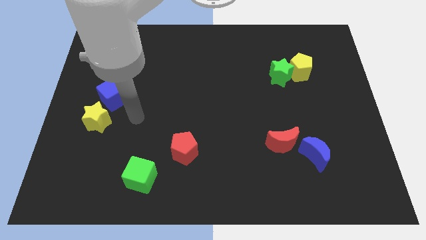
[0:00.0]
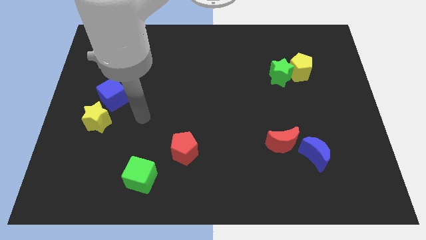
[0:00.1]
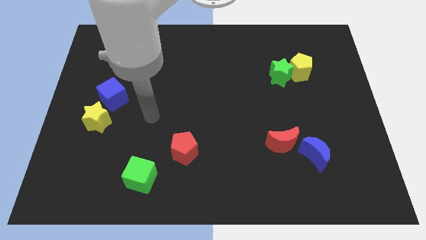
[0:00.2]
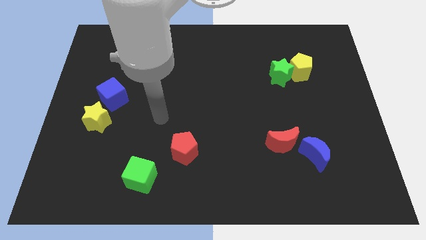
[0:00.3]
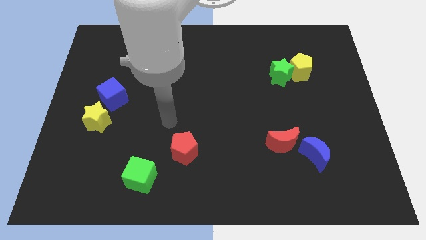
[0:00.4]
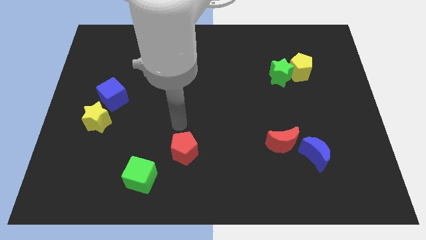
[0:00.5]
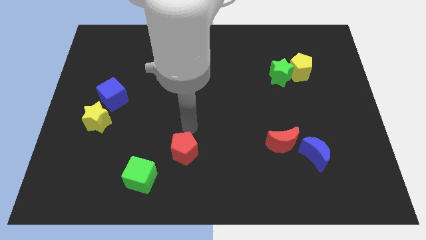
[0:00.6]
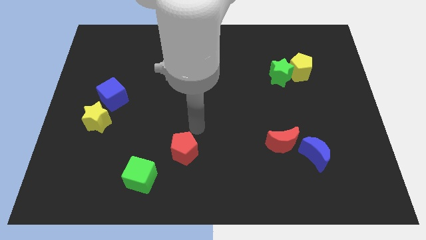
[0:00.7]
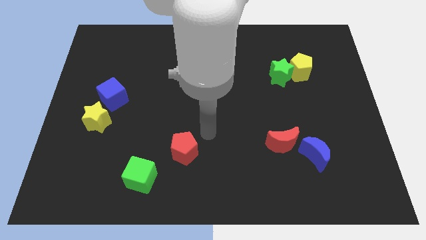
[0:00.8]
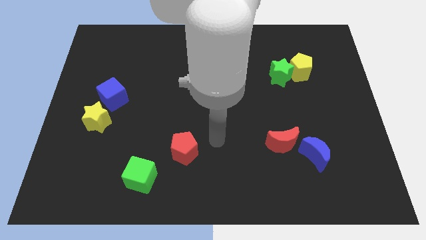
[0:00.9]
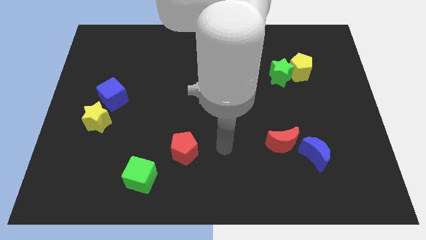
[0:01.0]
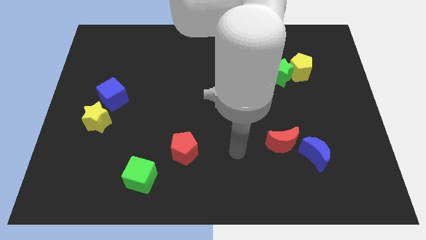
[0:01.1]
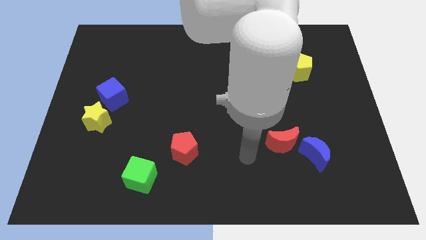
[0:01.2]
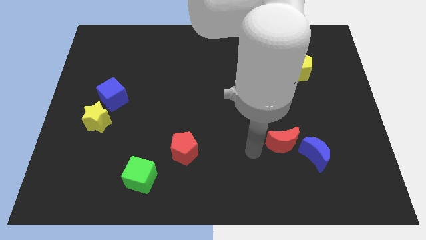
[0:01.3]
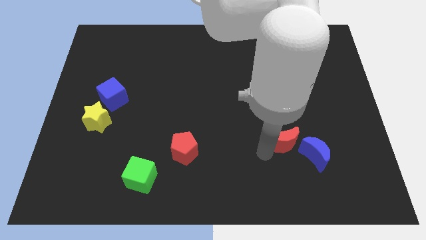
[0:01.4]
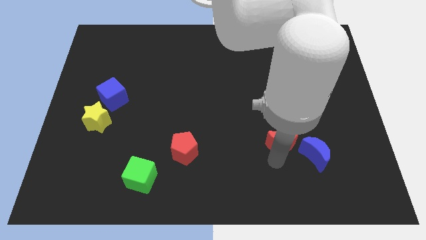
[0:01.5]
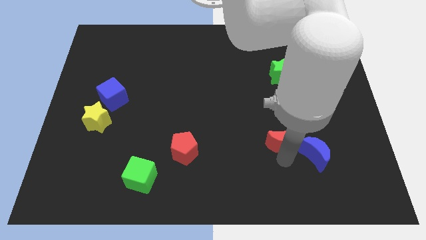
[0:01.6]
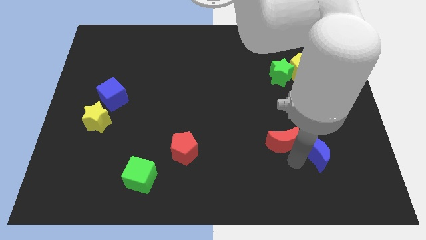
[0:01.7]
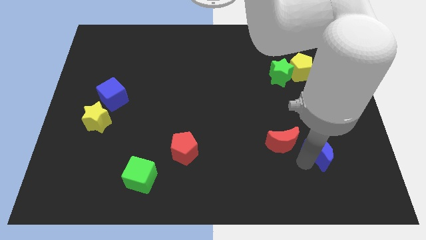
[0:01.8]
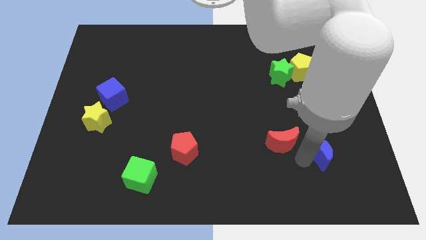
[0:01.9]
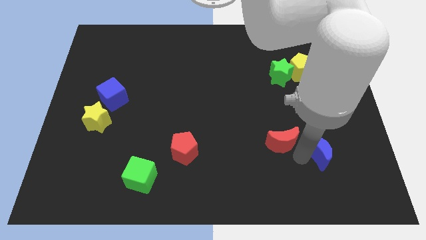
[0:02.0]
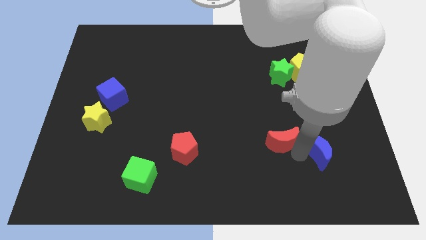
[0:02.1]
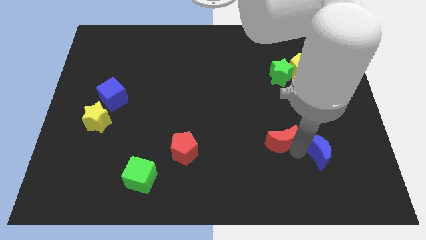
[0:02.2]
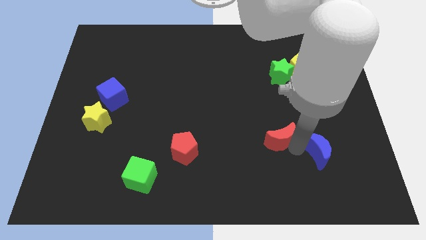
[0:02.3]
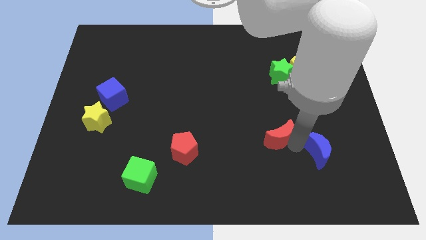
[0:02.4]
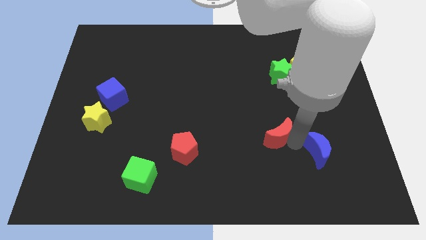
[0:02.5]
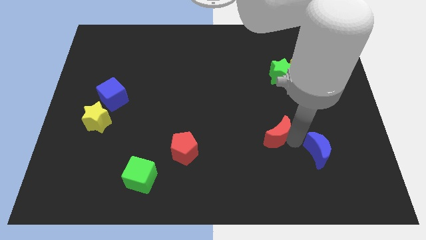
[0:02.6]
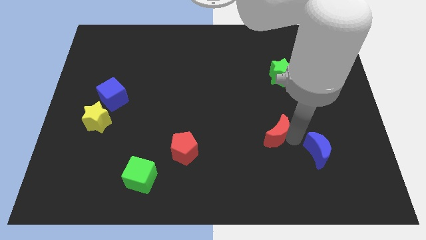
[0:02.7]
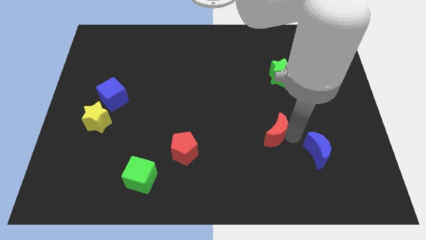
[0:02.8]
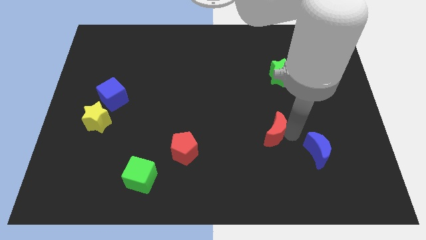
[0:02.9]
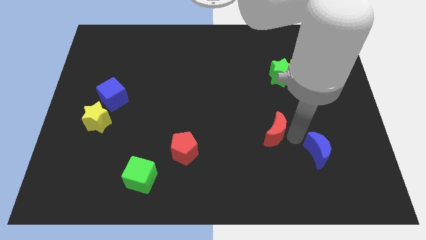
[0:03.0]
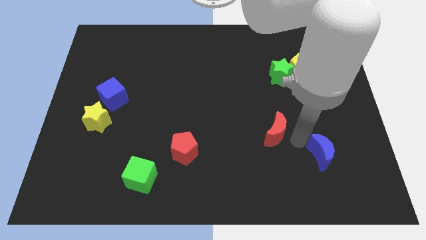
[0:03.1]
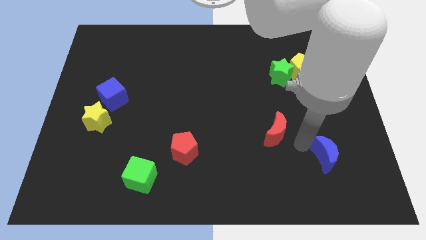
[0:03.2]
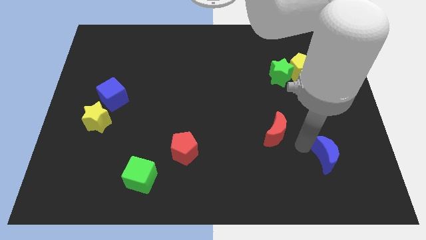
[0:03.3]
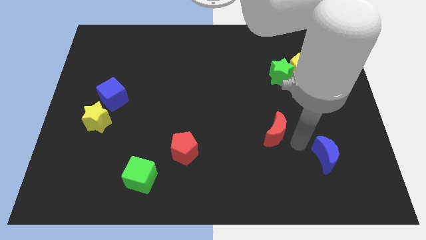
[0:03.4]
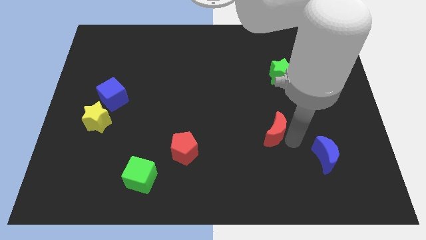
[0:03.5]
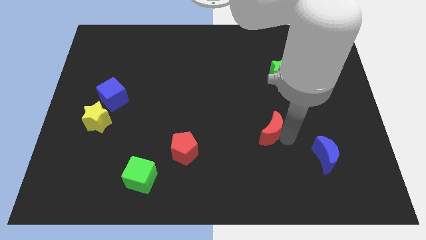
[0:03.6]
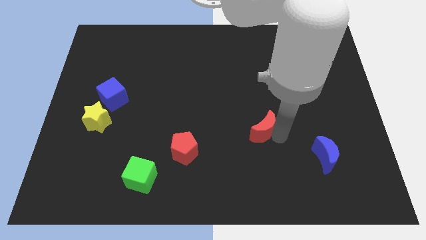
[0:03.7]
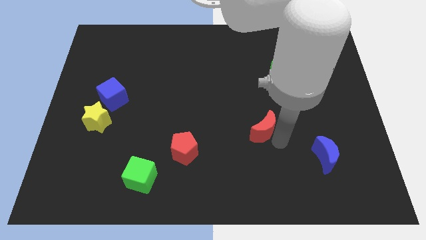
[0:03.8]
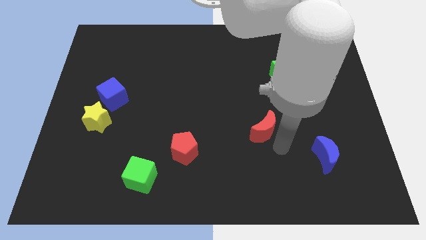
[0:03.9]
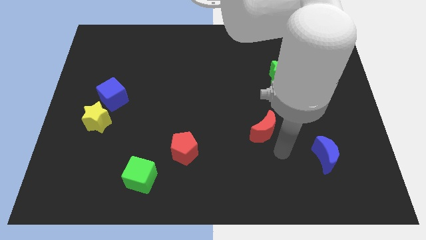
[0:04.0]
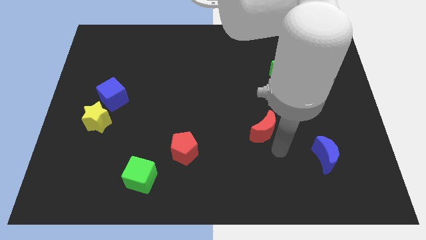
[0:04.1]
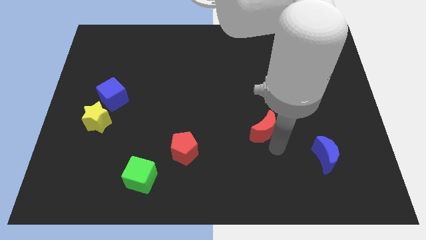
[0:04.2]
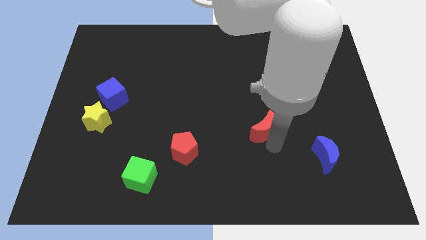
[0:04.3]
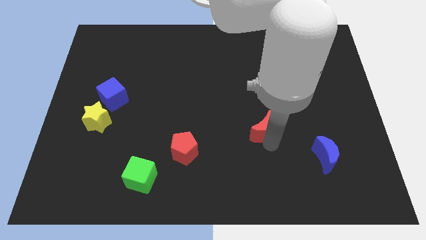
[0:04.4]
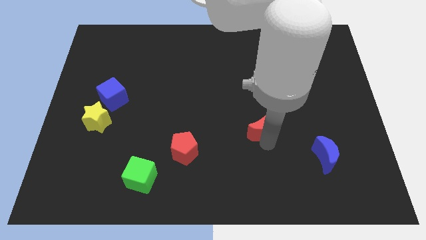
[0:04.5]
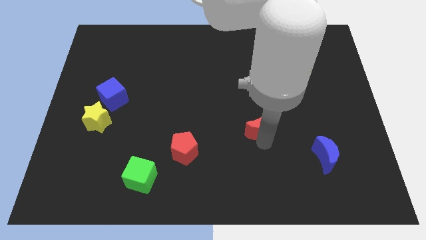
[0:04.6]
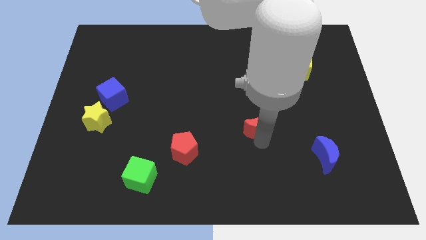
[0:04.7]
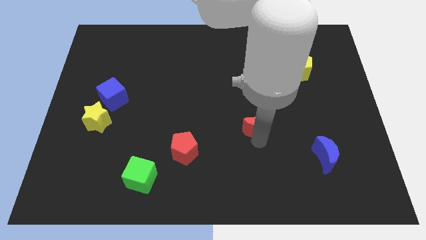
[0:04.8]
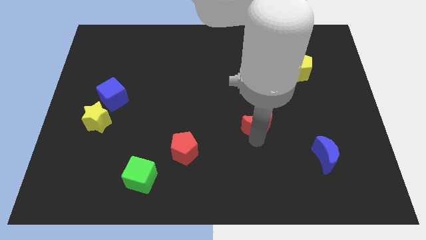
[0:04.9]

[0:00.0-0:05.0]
slightly slide the red moon diagonally up and to the left

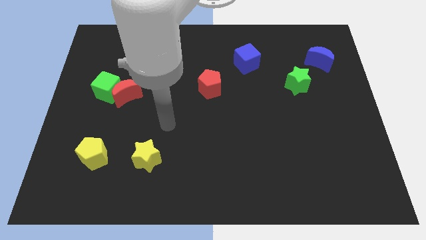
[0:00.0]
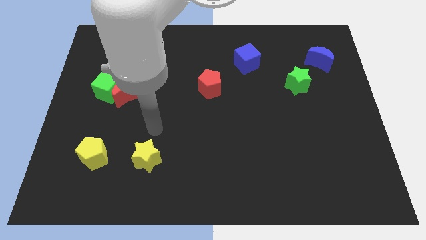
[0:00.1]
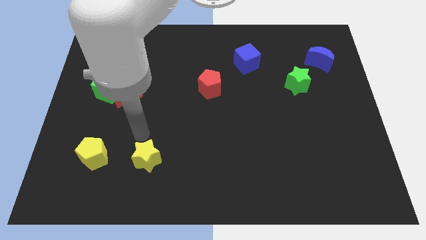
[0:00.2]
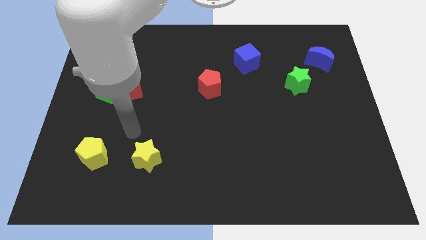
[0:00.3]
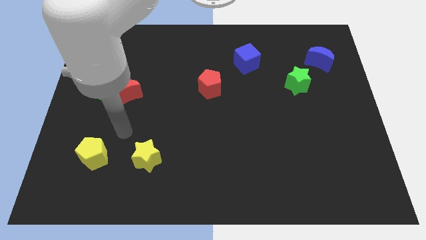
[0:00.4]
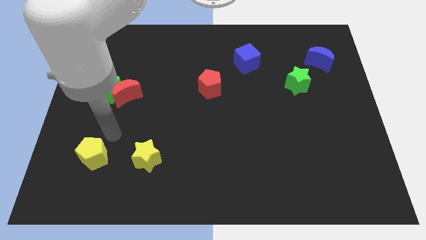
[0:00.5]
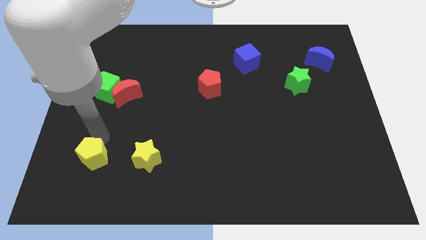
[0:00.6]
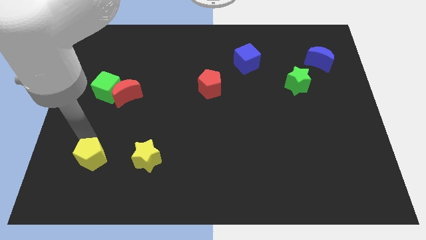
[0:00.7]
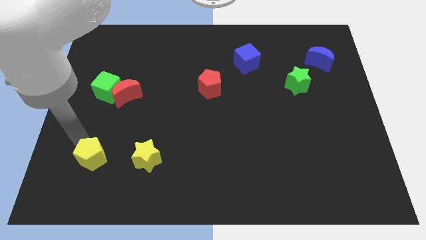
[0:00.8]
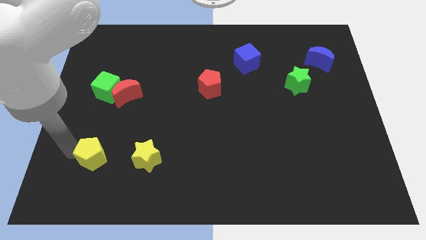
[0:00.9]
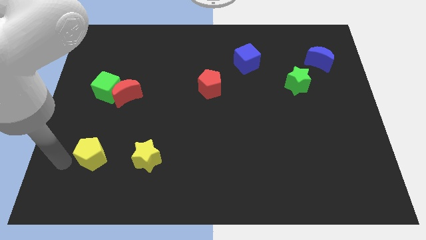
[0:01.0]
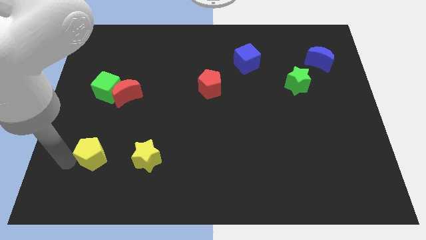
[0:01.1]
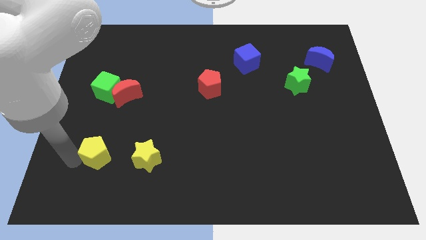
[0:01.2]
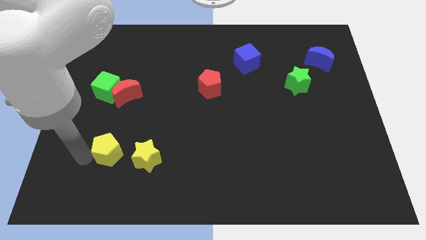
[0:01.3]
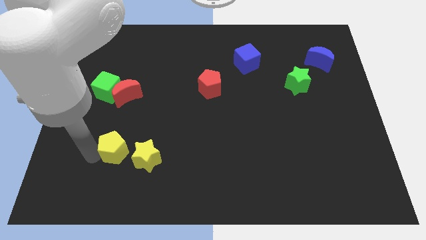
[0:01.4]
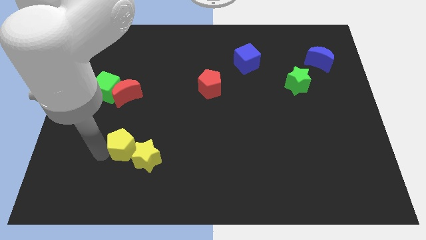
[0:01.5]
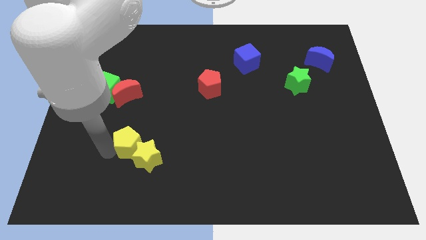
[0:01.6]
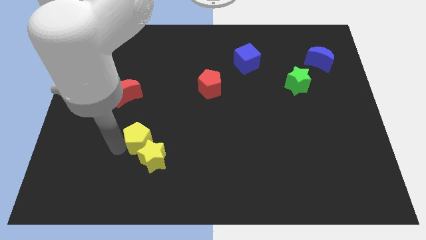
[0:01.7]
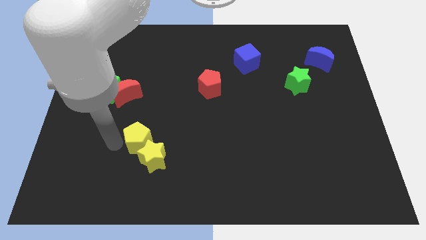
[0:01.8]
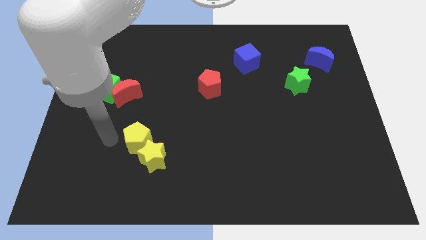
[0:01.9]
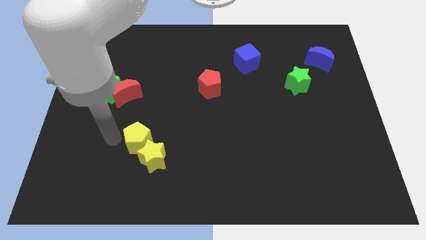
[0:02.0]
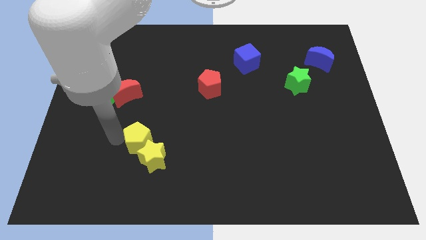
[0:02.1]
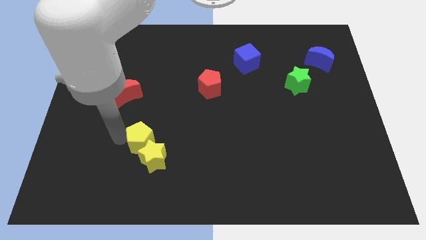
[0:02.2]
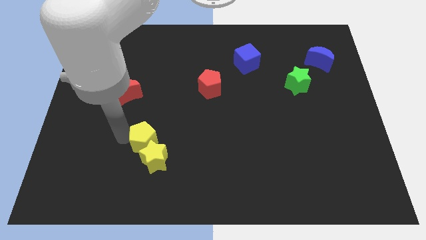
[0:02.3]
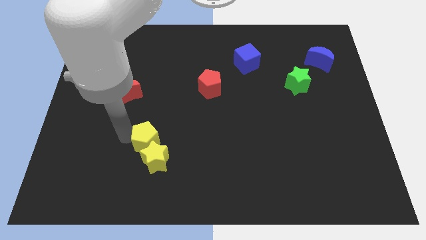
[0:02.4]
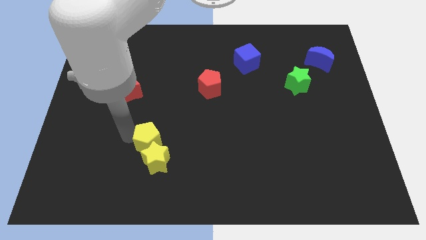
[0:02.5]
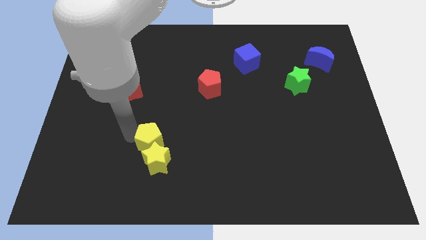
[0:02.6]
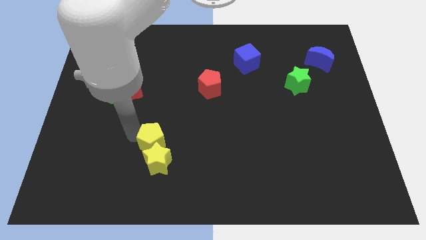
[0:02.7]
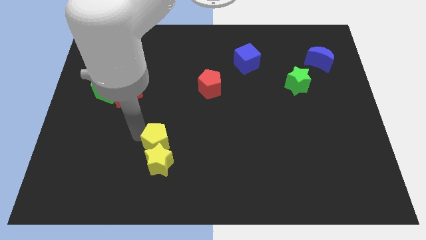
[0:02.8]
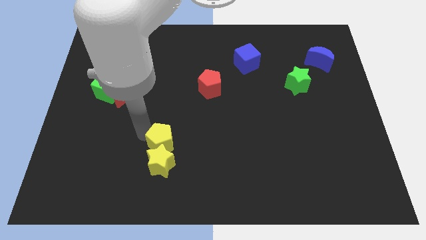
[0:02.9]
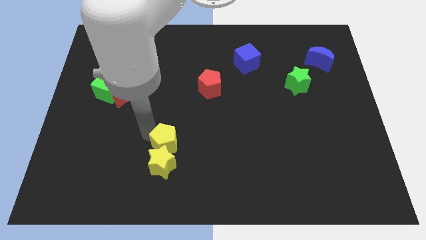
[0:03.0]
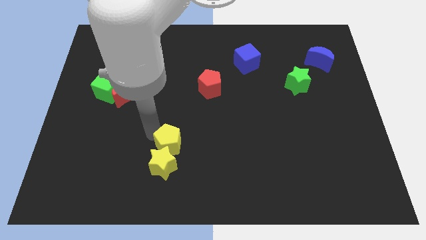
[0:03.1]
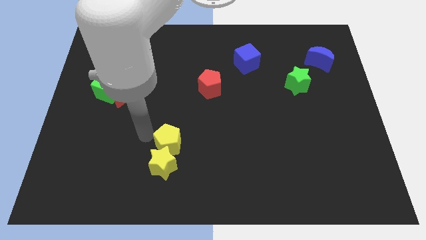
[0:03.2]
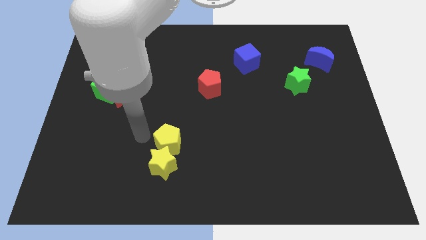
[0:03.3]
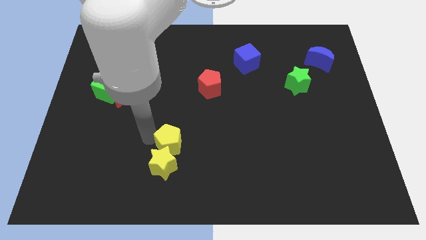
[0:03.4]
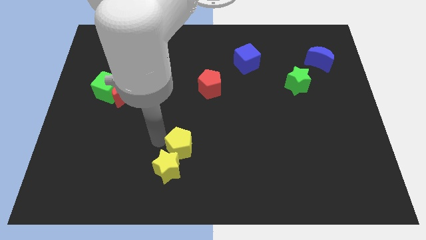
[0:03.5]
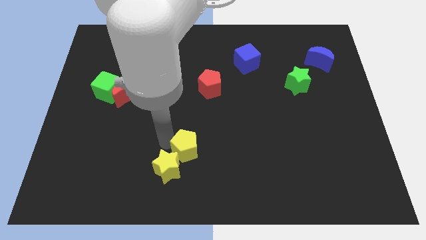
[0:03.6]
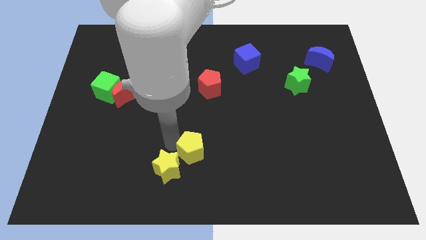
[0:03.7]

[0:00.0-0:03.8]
slide the yellow pentagon right
